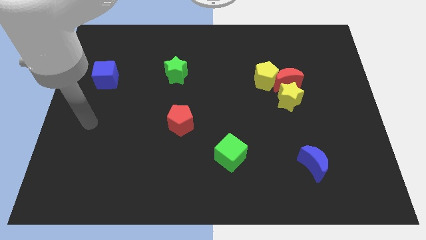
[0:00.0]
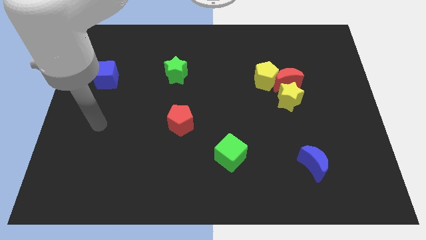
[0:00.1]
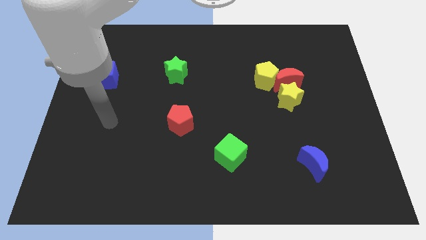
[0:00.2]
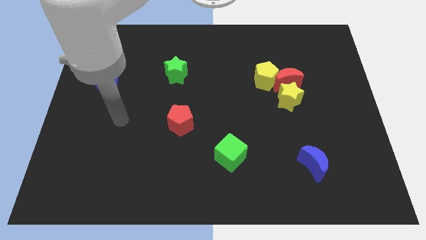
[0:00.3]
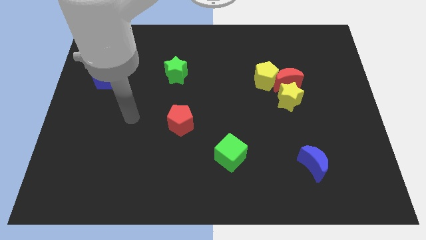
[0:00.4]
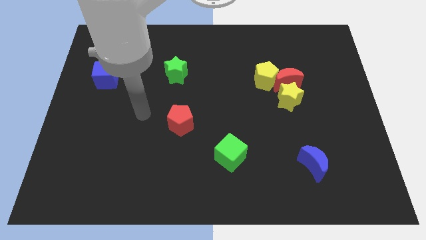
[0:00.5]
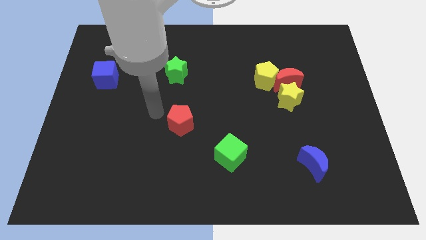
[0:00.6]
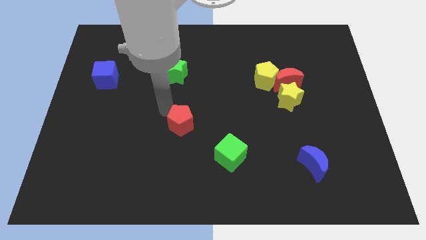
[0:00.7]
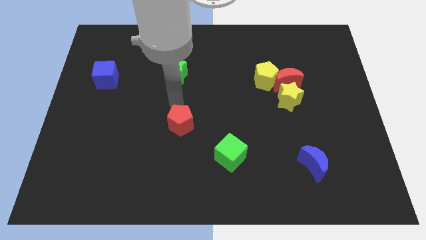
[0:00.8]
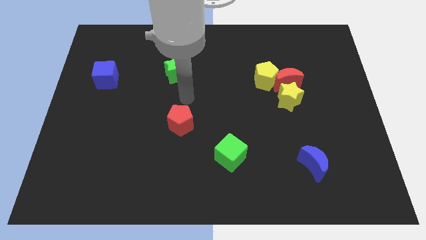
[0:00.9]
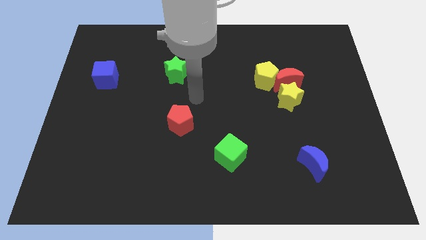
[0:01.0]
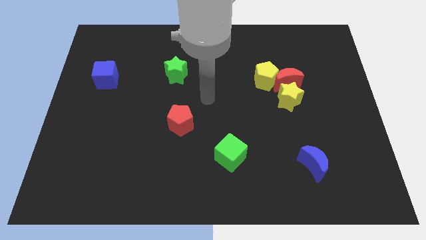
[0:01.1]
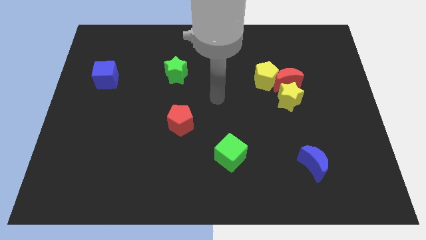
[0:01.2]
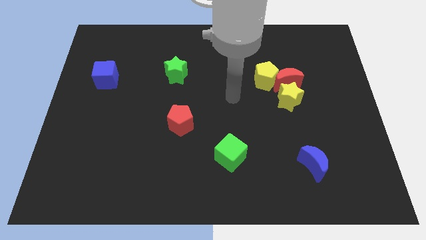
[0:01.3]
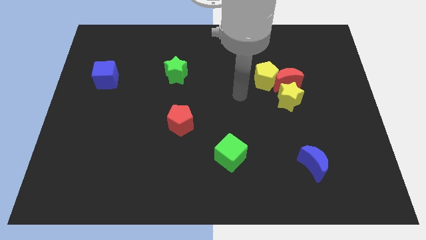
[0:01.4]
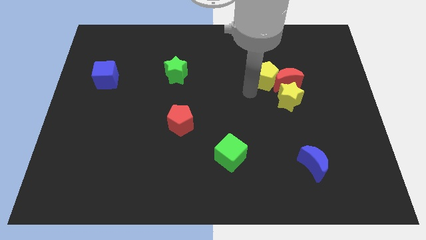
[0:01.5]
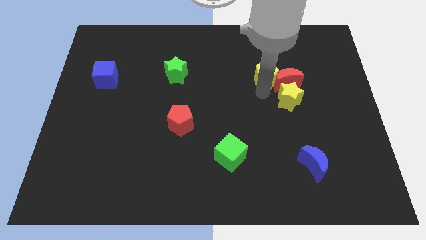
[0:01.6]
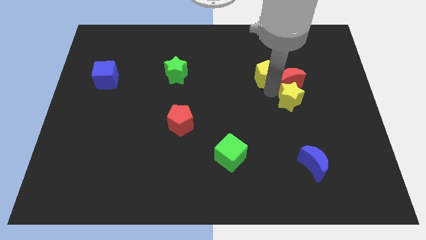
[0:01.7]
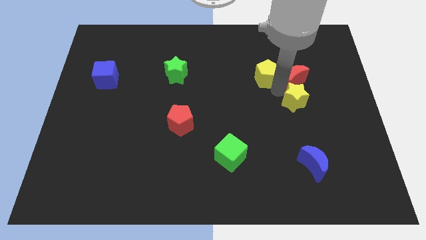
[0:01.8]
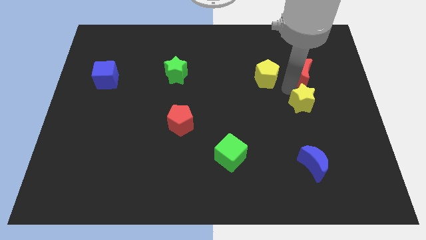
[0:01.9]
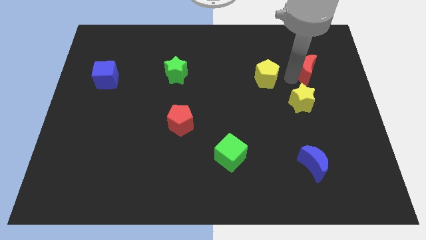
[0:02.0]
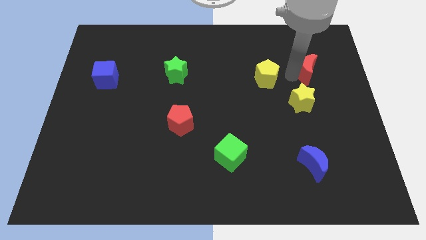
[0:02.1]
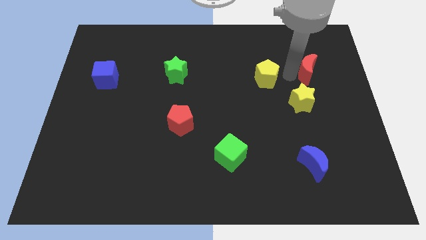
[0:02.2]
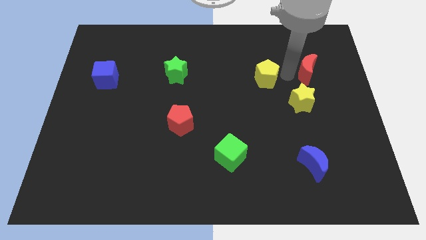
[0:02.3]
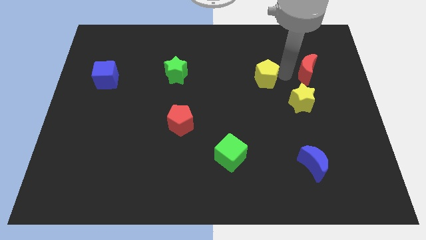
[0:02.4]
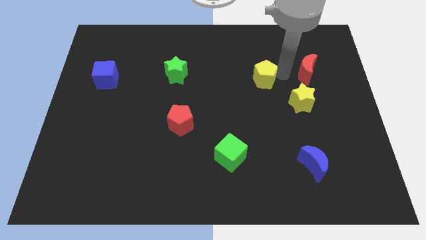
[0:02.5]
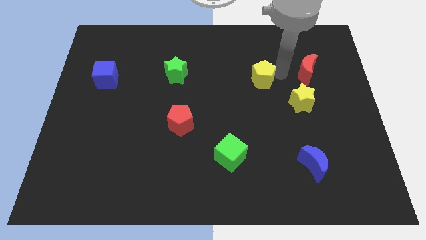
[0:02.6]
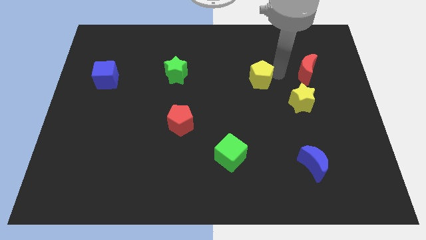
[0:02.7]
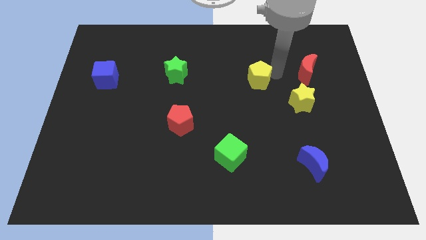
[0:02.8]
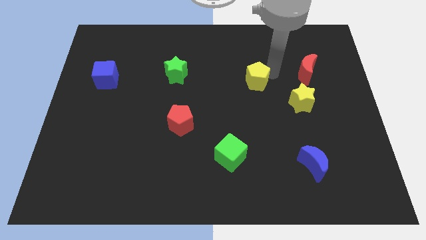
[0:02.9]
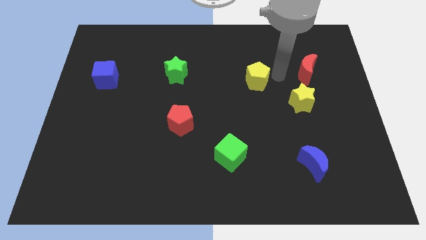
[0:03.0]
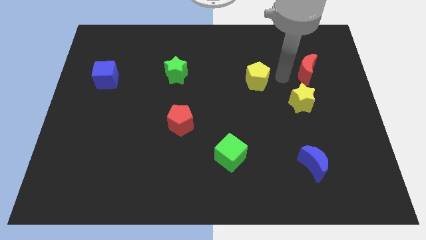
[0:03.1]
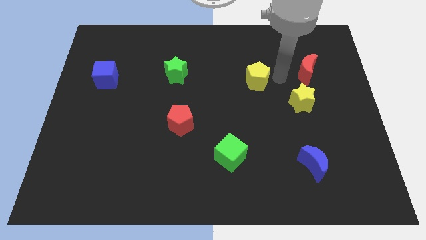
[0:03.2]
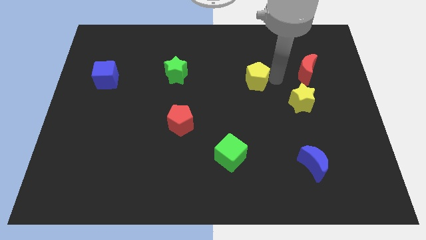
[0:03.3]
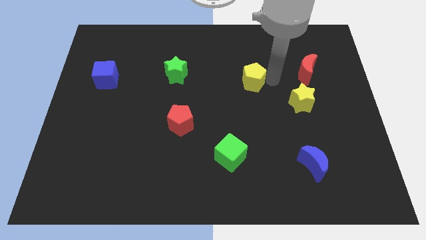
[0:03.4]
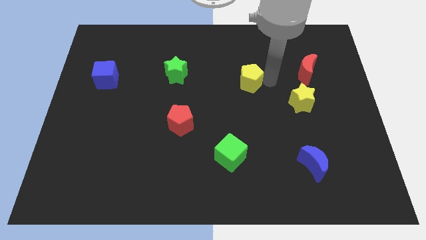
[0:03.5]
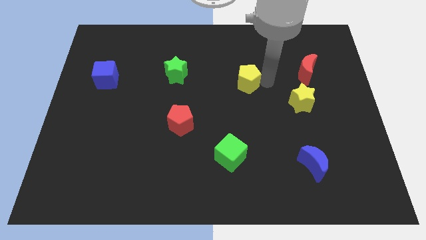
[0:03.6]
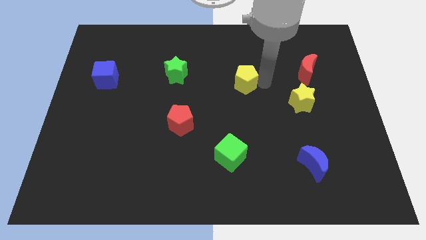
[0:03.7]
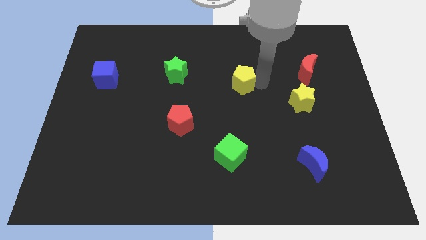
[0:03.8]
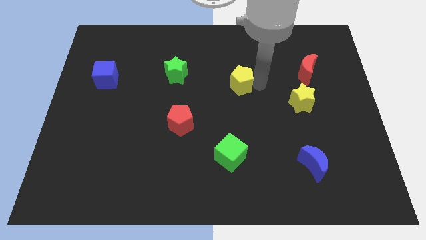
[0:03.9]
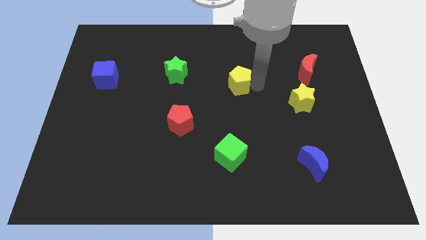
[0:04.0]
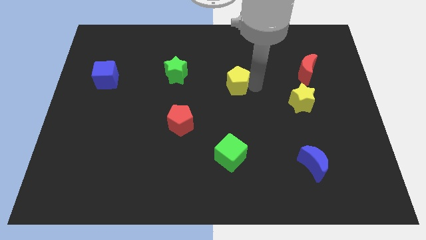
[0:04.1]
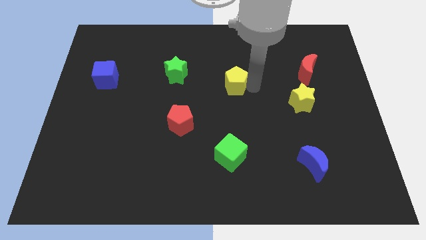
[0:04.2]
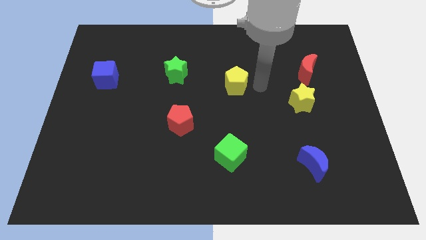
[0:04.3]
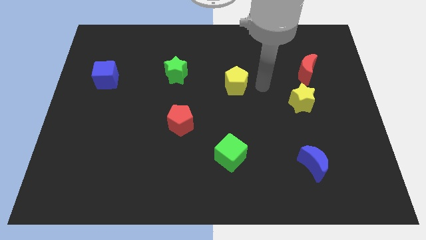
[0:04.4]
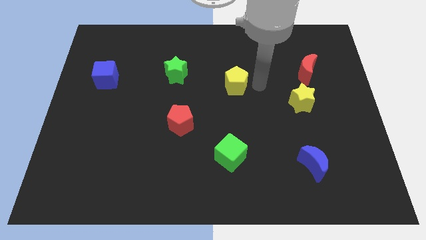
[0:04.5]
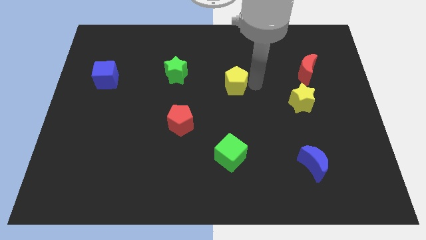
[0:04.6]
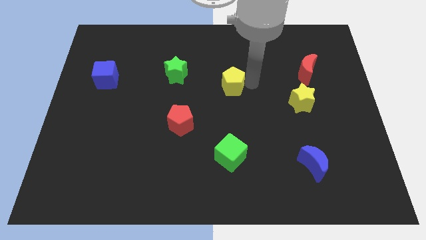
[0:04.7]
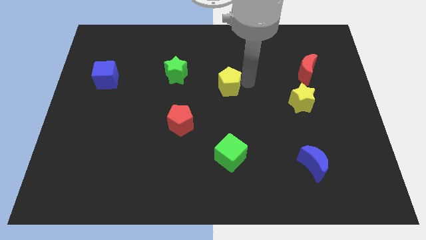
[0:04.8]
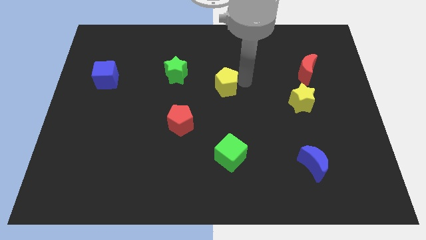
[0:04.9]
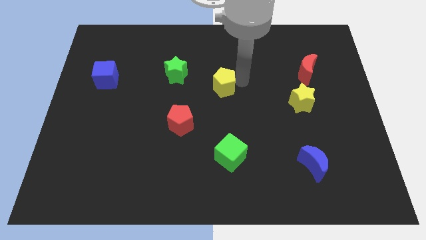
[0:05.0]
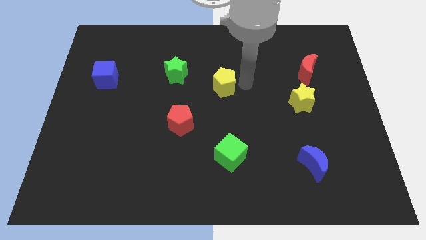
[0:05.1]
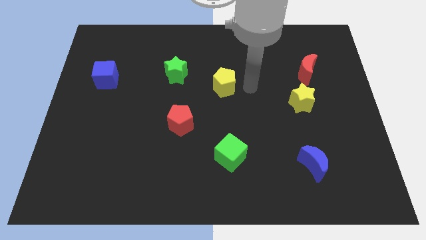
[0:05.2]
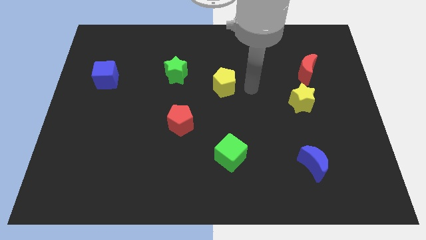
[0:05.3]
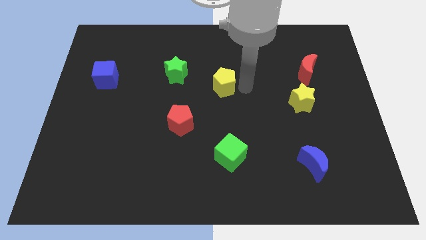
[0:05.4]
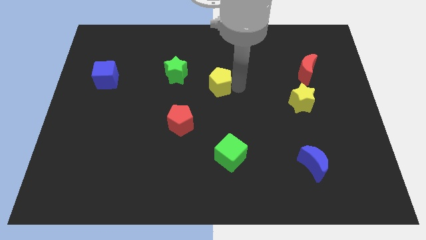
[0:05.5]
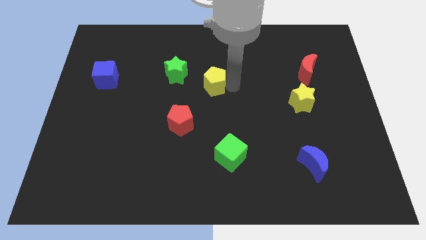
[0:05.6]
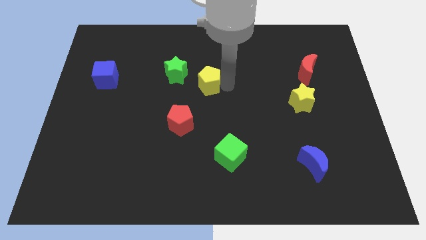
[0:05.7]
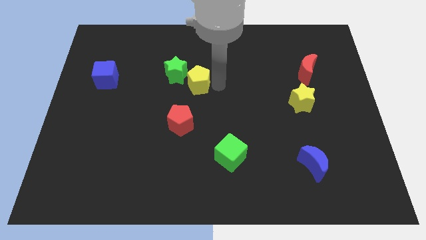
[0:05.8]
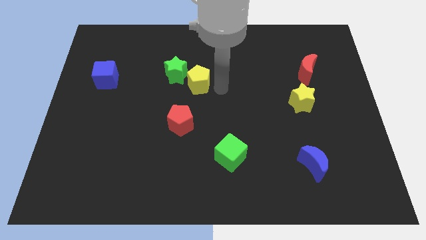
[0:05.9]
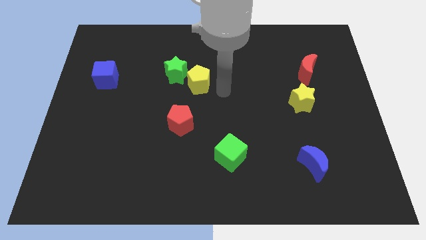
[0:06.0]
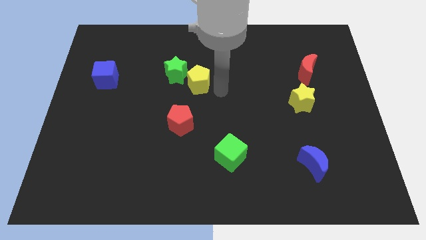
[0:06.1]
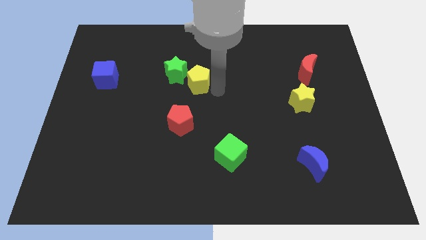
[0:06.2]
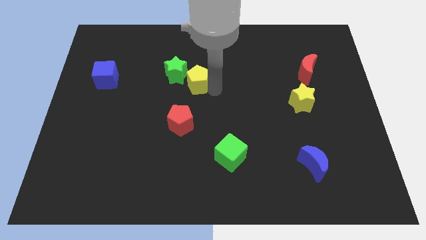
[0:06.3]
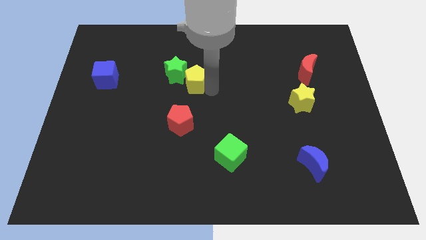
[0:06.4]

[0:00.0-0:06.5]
move the yellow pentagon to the green star

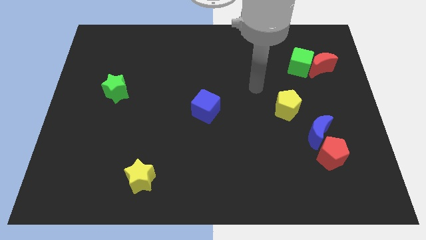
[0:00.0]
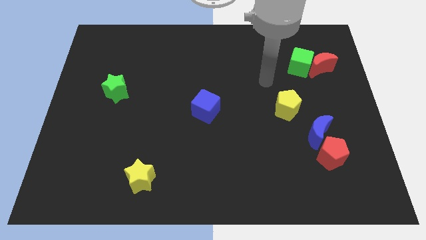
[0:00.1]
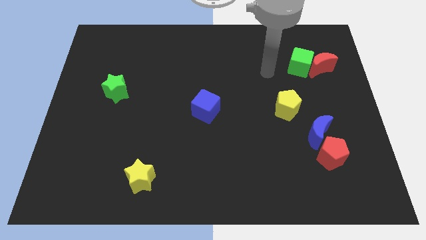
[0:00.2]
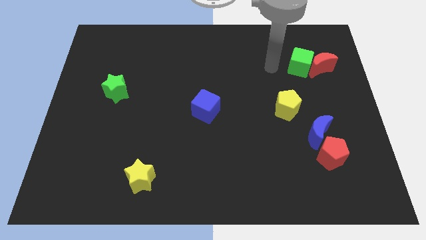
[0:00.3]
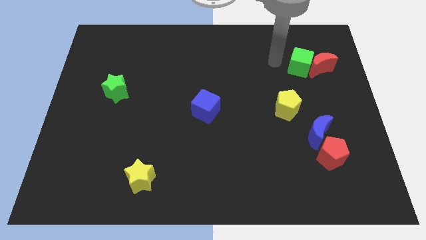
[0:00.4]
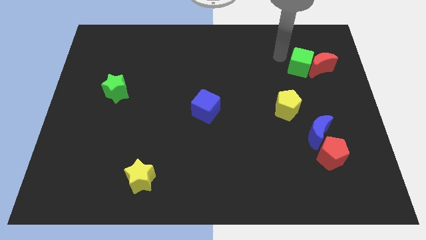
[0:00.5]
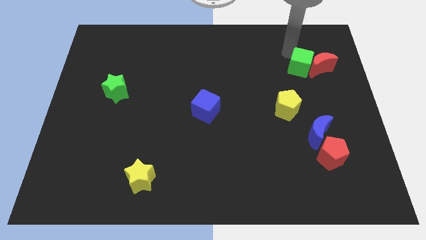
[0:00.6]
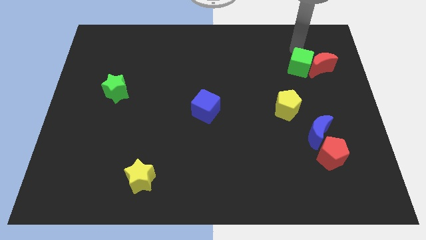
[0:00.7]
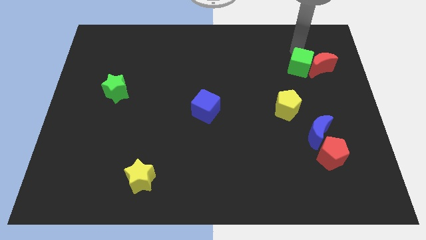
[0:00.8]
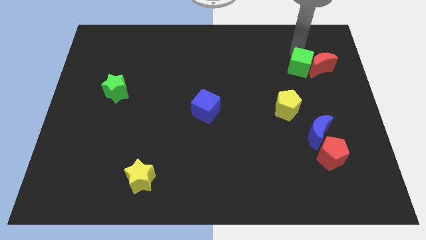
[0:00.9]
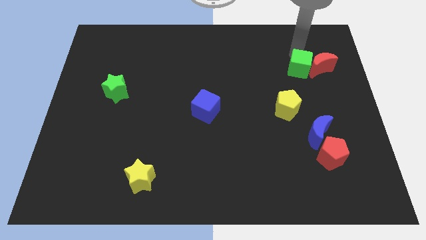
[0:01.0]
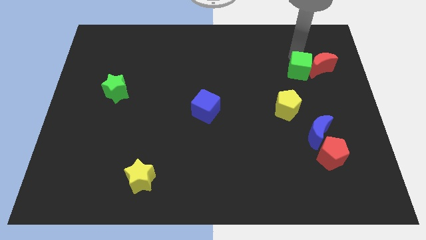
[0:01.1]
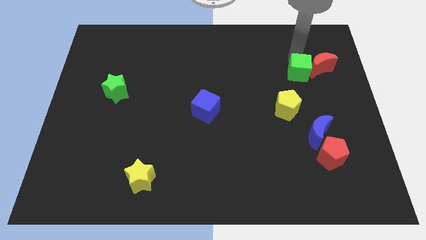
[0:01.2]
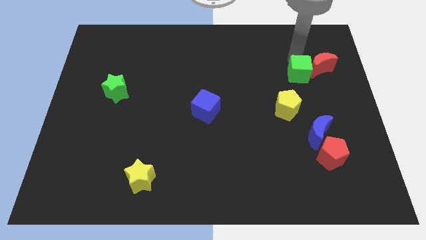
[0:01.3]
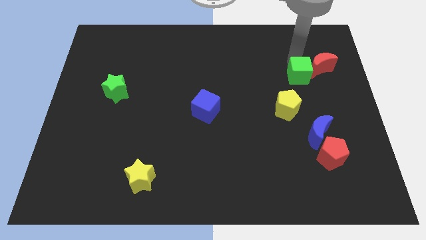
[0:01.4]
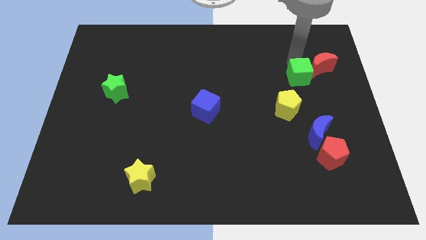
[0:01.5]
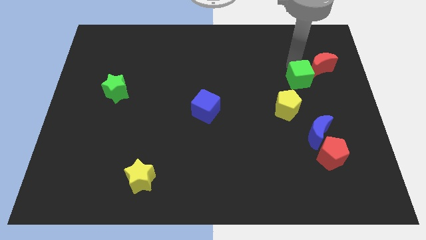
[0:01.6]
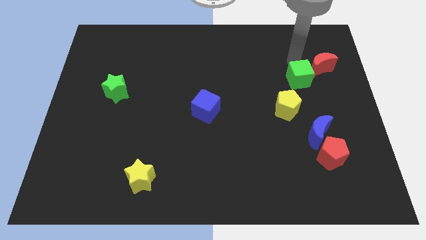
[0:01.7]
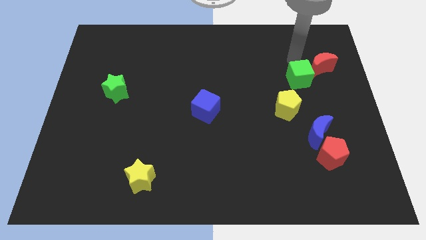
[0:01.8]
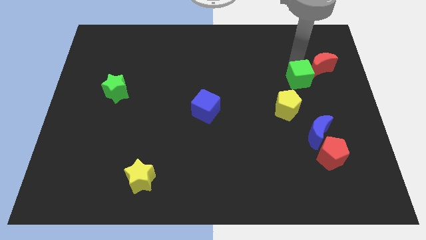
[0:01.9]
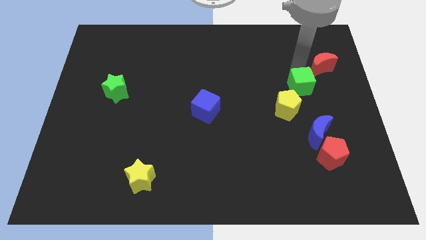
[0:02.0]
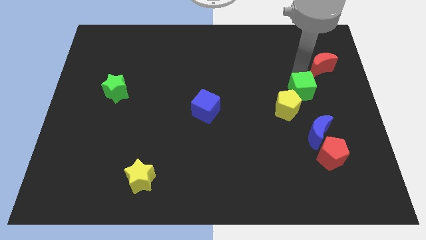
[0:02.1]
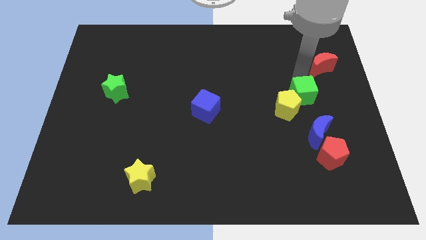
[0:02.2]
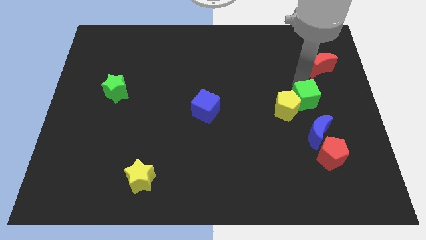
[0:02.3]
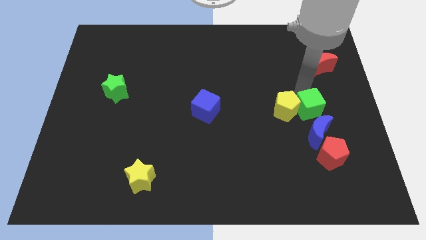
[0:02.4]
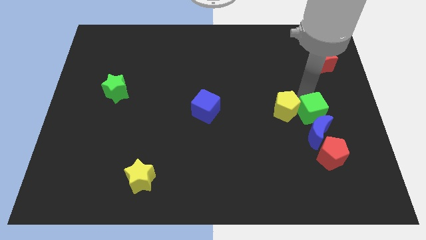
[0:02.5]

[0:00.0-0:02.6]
put the green cube next to the blue moon
